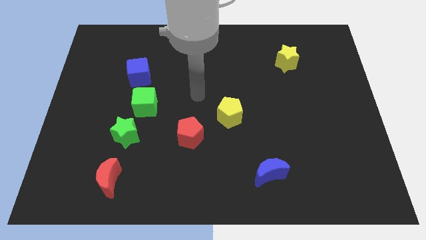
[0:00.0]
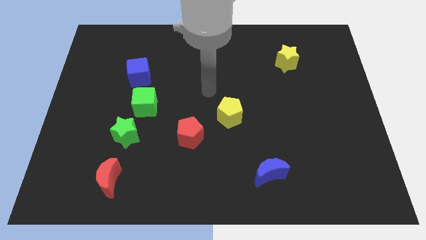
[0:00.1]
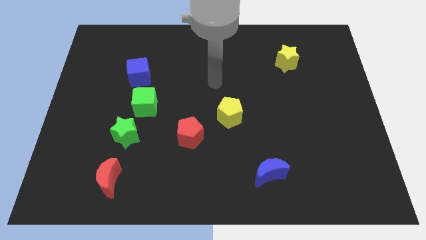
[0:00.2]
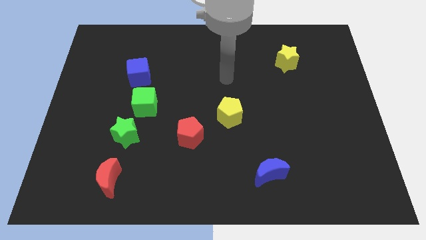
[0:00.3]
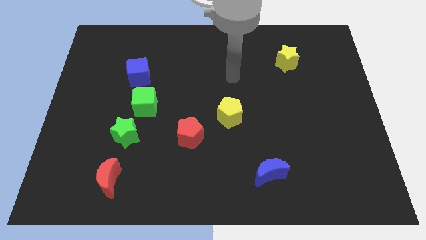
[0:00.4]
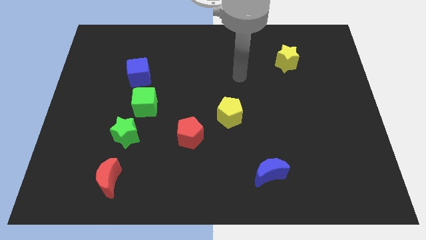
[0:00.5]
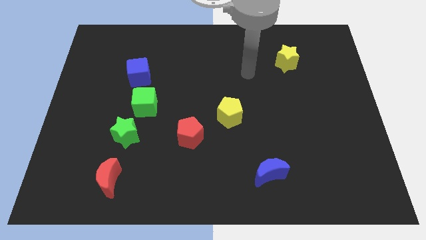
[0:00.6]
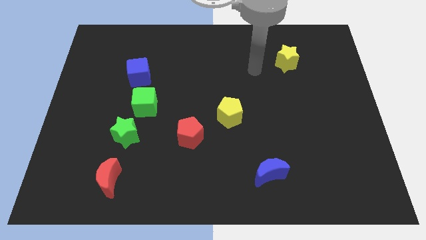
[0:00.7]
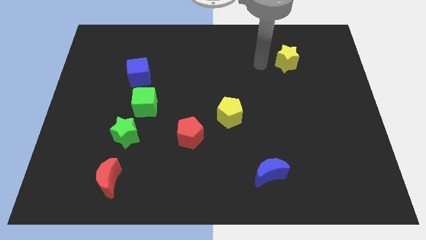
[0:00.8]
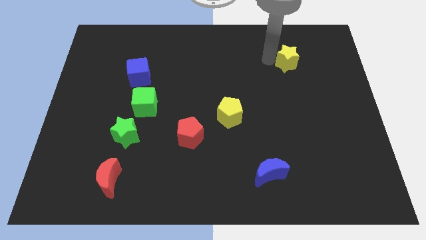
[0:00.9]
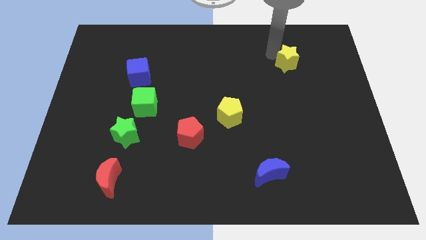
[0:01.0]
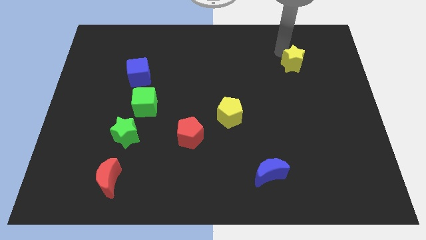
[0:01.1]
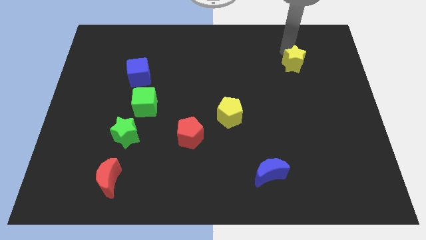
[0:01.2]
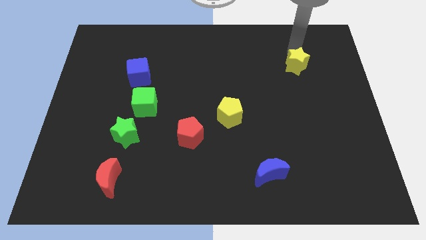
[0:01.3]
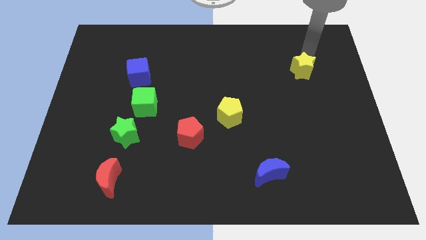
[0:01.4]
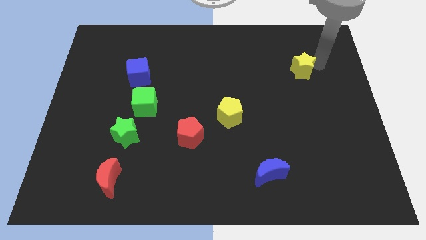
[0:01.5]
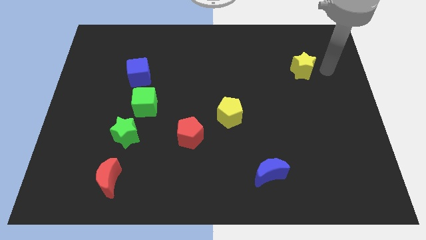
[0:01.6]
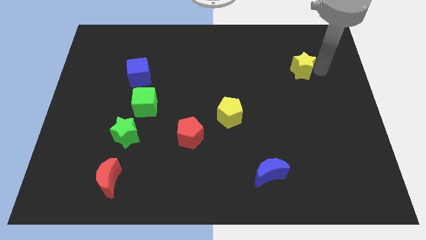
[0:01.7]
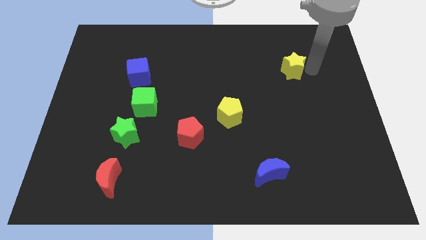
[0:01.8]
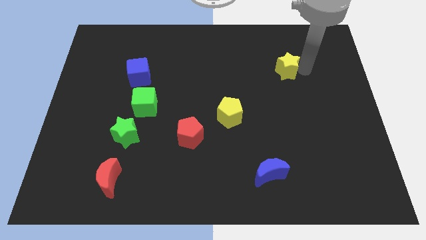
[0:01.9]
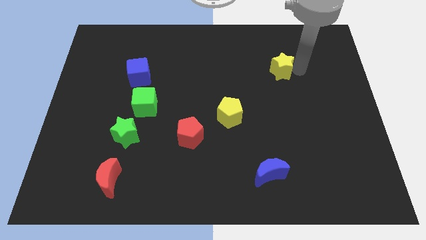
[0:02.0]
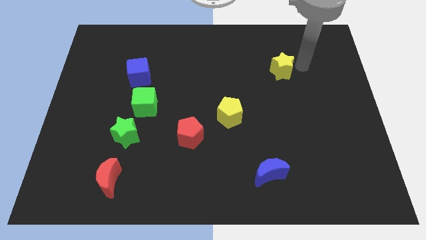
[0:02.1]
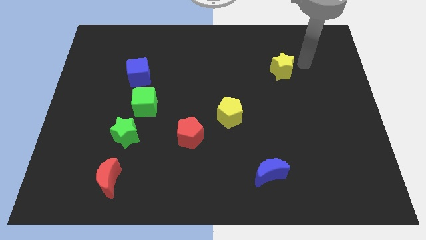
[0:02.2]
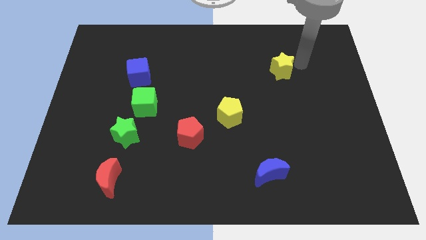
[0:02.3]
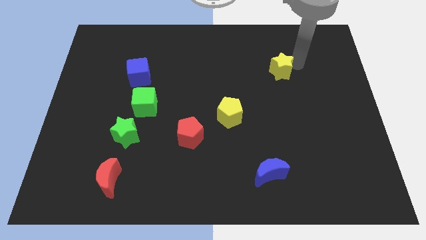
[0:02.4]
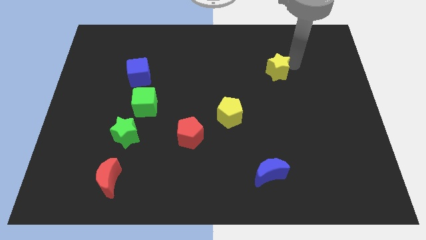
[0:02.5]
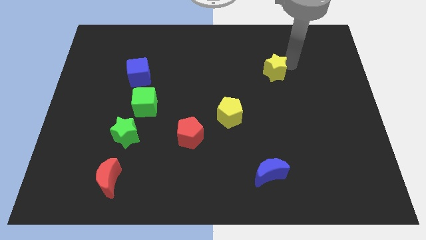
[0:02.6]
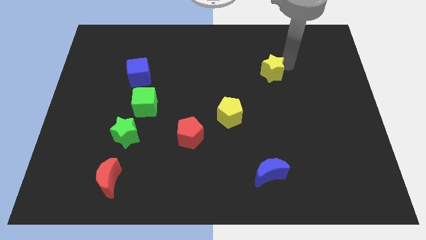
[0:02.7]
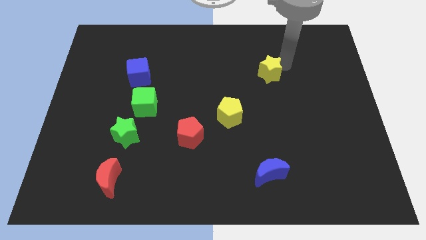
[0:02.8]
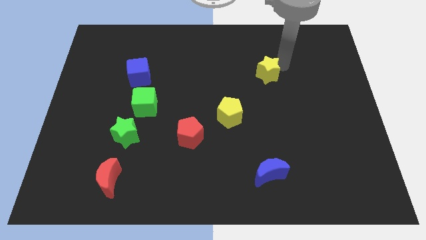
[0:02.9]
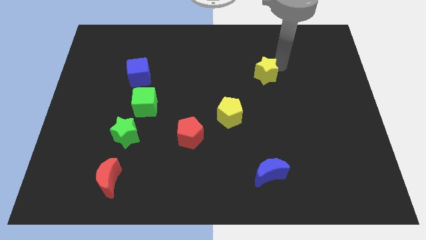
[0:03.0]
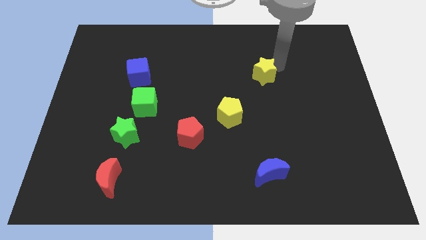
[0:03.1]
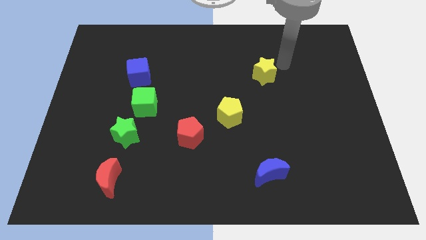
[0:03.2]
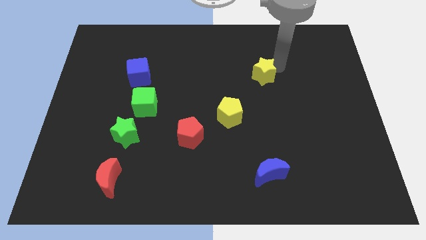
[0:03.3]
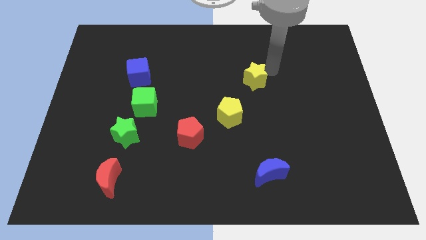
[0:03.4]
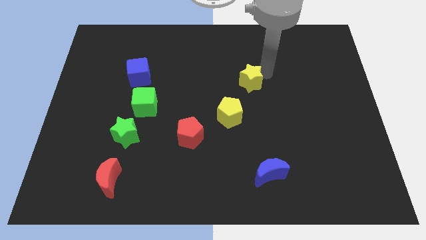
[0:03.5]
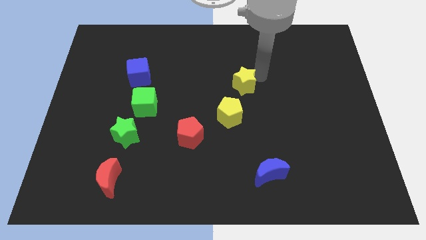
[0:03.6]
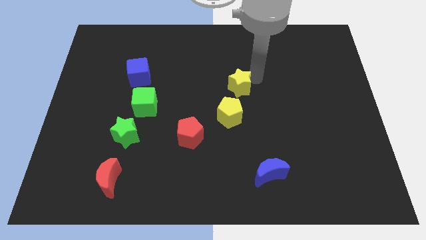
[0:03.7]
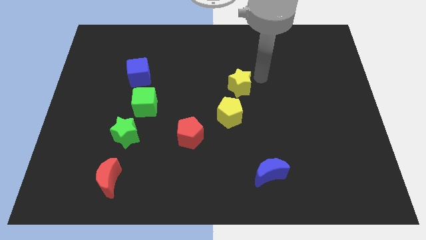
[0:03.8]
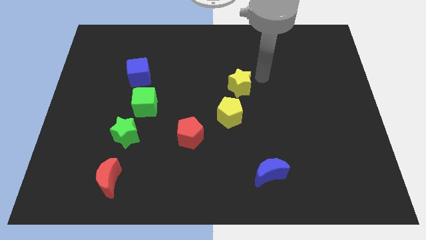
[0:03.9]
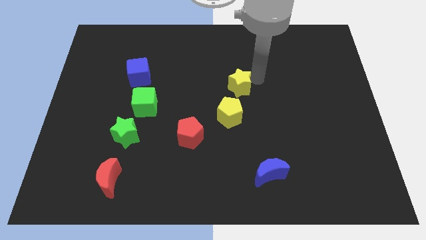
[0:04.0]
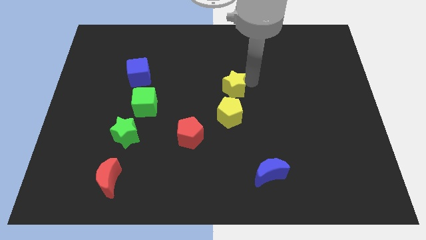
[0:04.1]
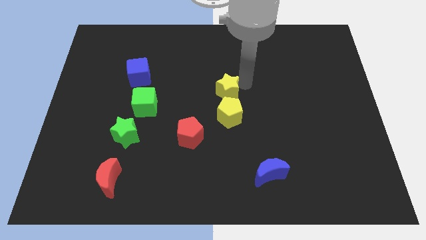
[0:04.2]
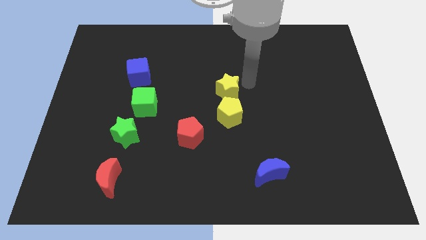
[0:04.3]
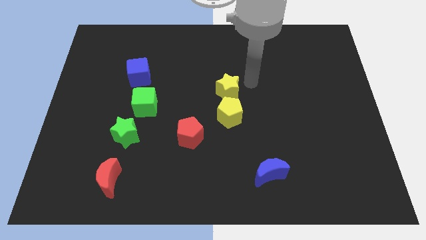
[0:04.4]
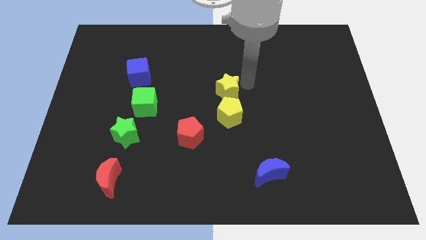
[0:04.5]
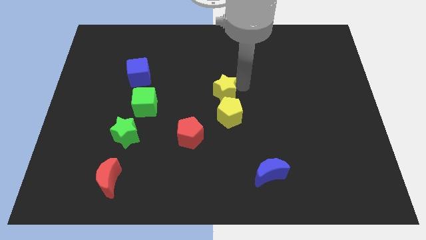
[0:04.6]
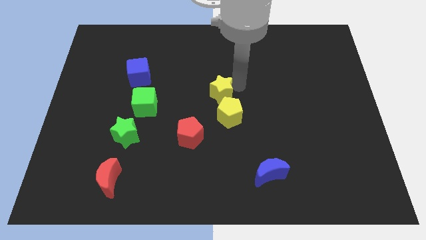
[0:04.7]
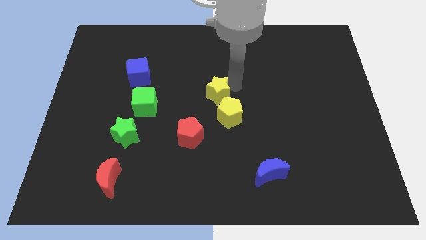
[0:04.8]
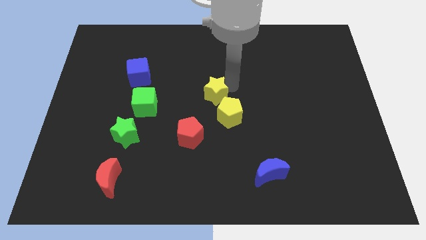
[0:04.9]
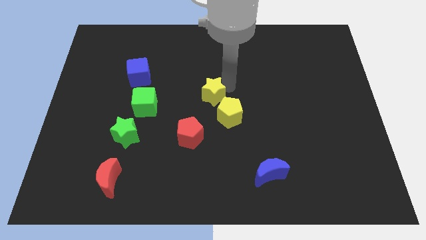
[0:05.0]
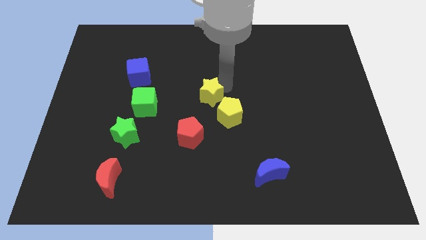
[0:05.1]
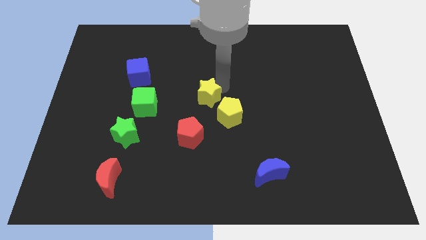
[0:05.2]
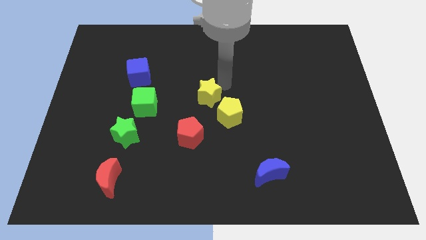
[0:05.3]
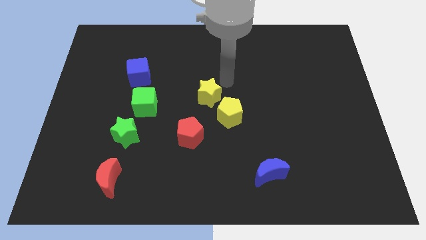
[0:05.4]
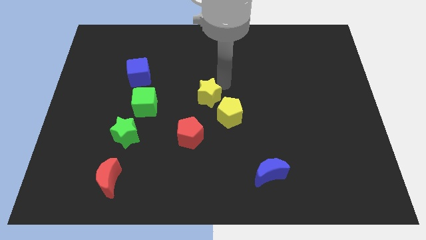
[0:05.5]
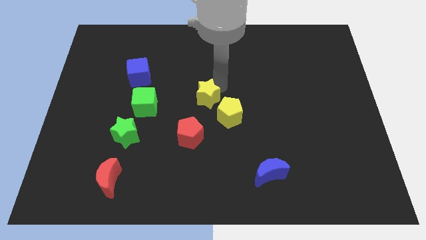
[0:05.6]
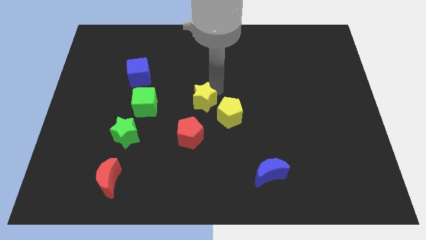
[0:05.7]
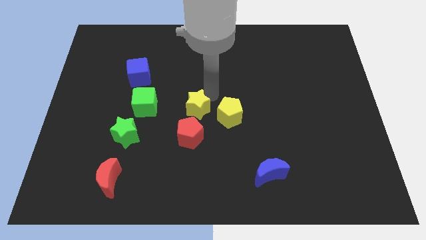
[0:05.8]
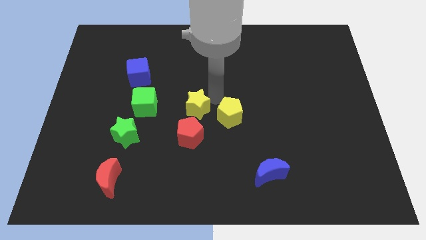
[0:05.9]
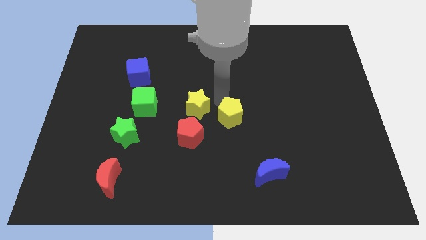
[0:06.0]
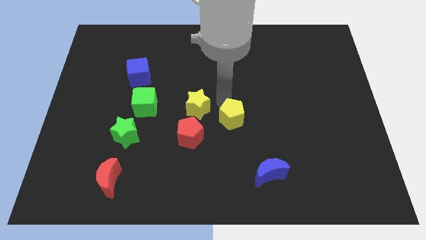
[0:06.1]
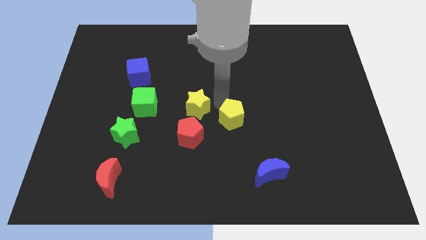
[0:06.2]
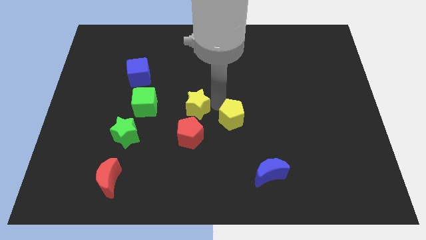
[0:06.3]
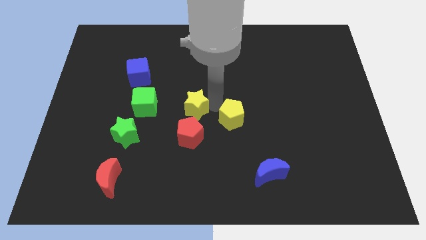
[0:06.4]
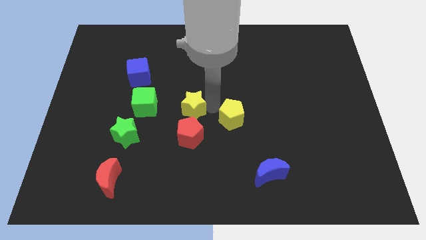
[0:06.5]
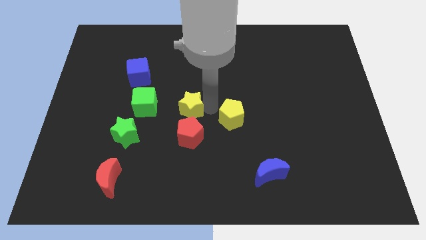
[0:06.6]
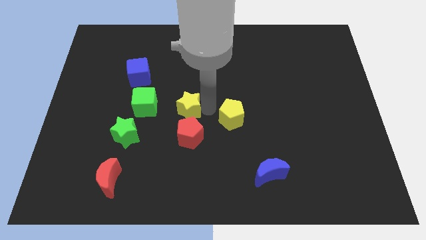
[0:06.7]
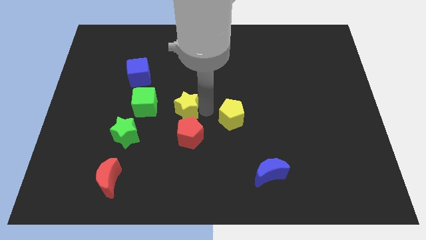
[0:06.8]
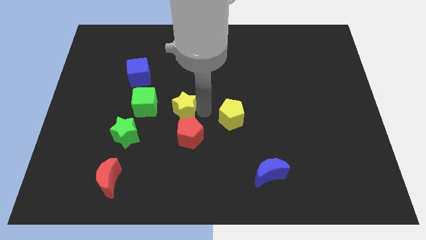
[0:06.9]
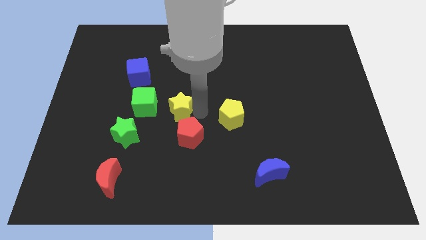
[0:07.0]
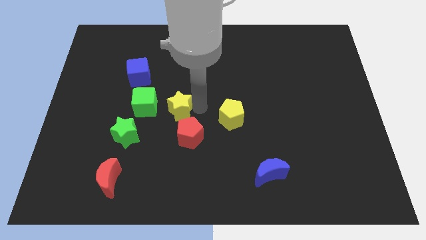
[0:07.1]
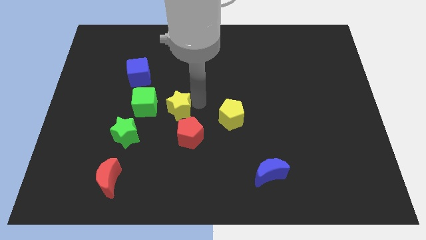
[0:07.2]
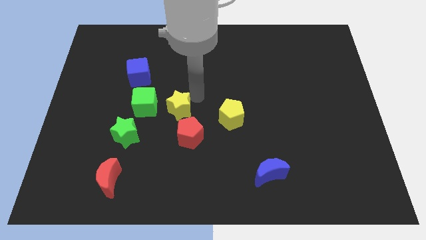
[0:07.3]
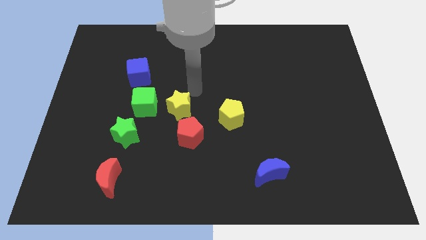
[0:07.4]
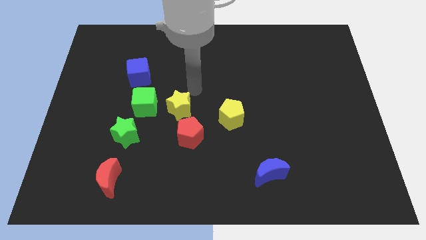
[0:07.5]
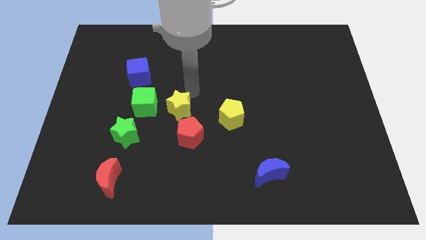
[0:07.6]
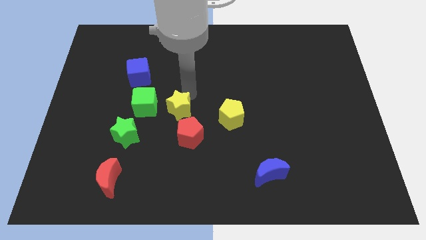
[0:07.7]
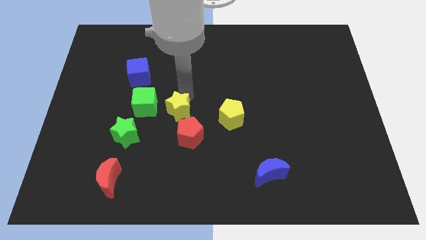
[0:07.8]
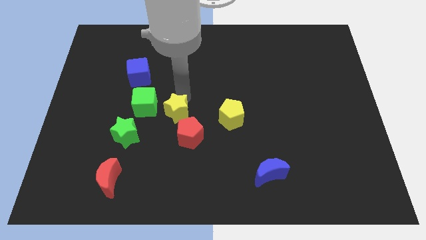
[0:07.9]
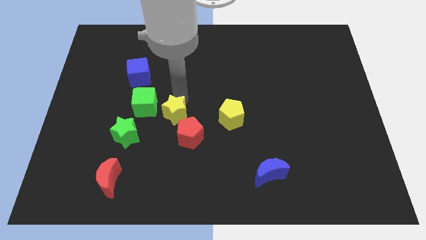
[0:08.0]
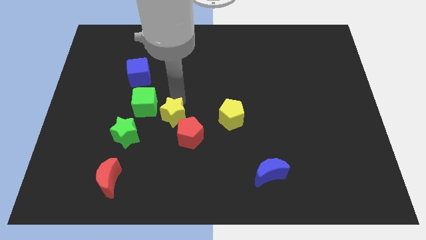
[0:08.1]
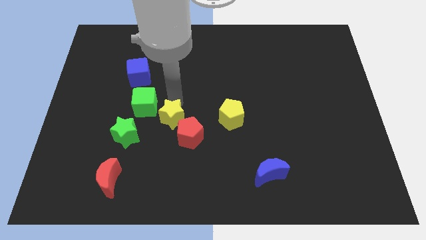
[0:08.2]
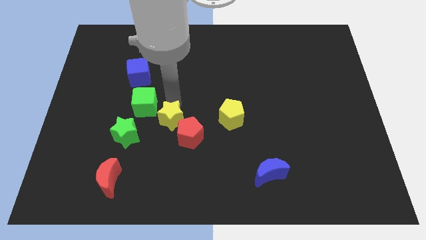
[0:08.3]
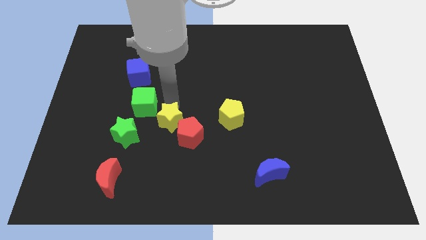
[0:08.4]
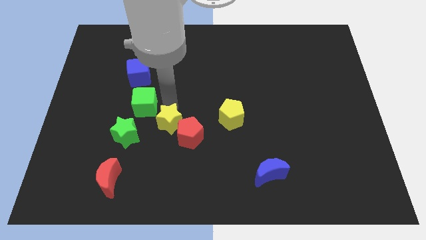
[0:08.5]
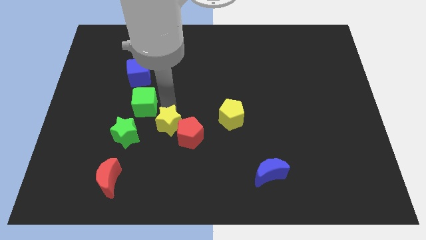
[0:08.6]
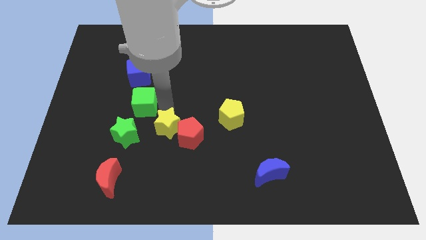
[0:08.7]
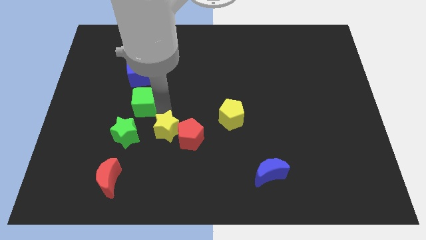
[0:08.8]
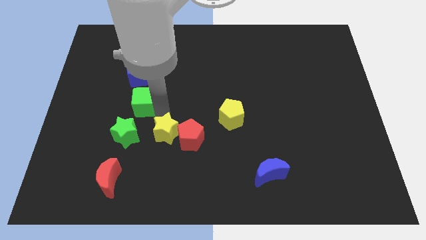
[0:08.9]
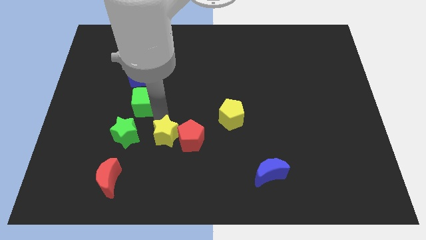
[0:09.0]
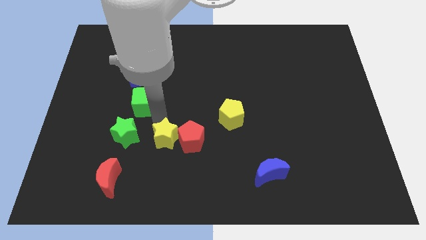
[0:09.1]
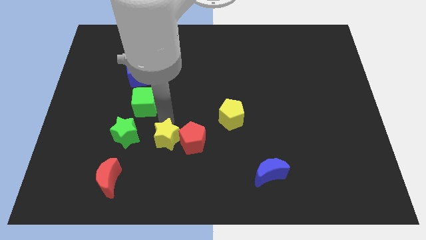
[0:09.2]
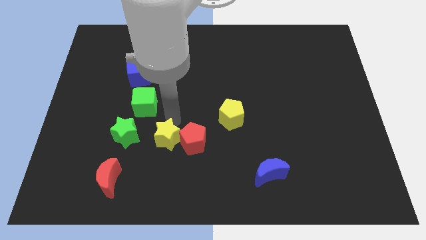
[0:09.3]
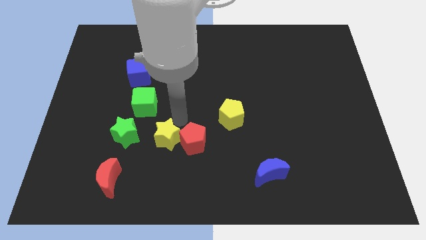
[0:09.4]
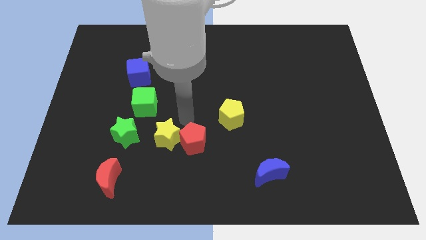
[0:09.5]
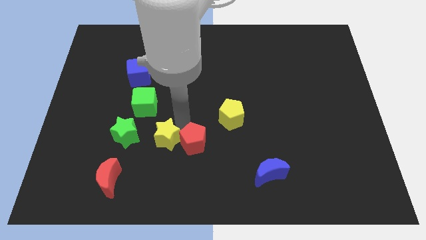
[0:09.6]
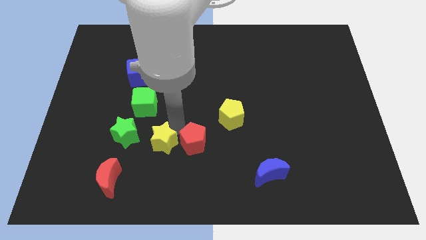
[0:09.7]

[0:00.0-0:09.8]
push the yellow star to the bottom right of the green star
